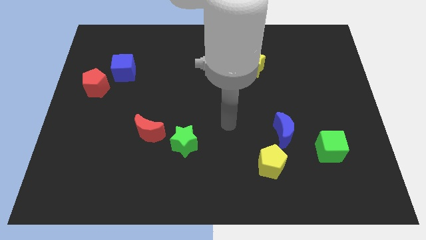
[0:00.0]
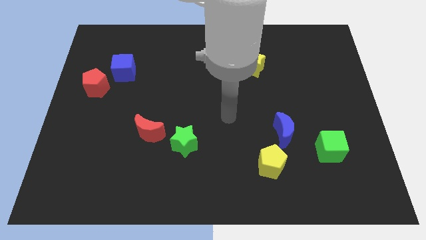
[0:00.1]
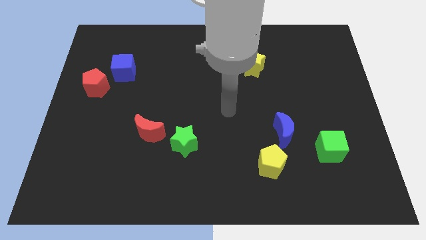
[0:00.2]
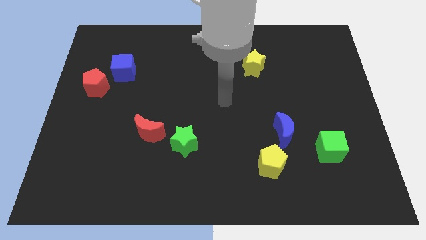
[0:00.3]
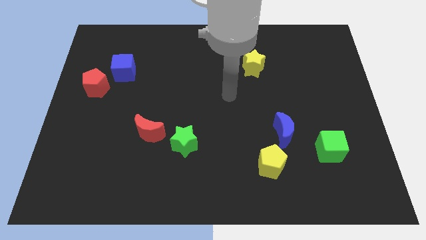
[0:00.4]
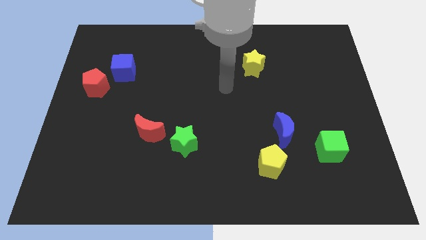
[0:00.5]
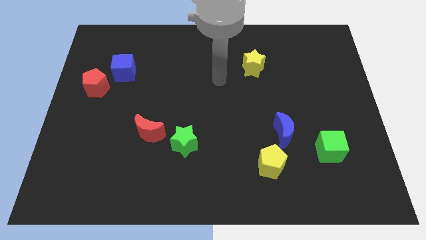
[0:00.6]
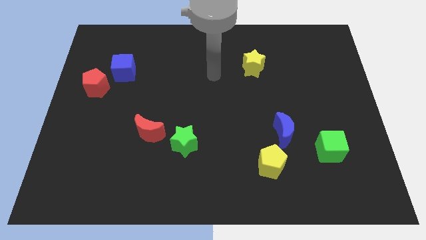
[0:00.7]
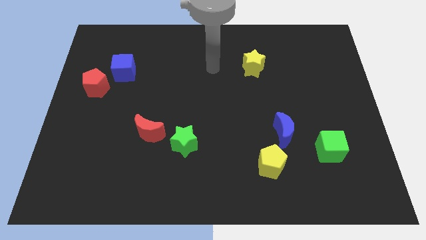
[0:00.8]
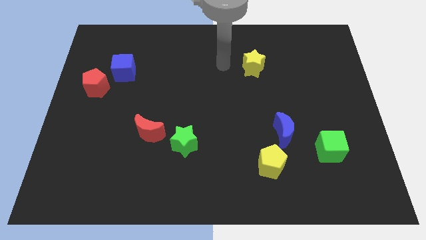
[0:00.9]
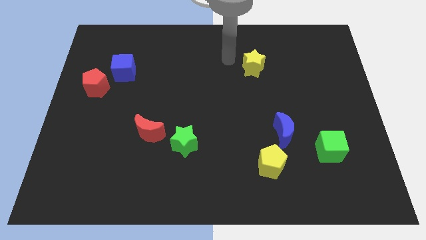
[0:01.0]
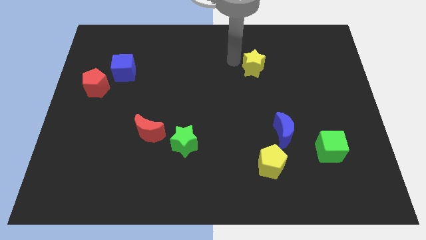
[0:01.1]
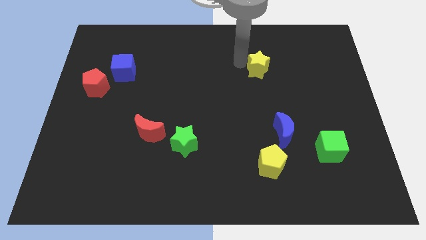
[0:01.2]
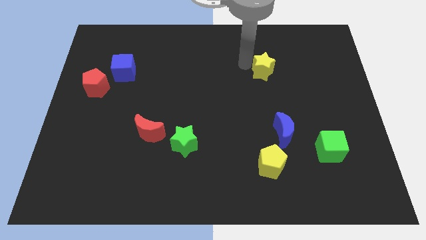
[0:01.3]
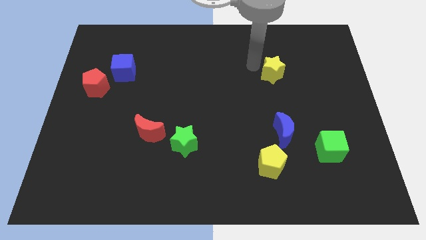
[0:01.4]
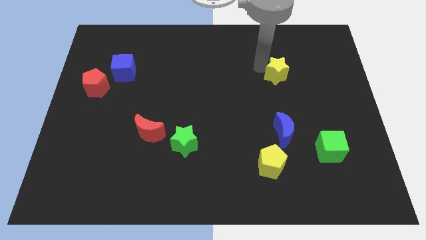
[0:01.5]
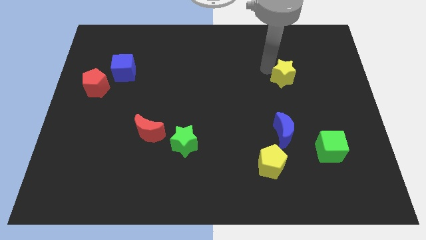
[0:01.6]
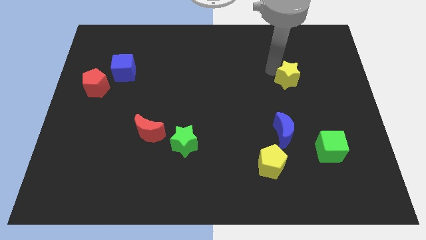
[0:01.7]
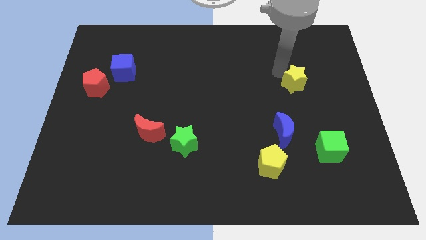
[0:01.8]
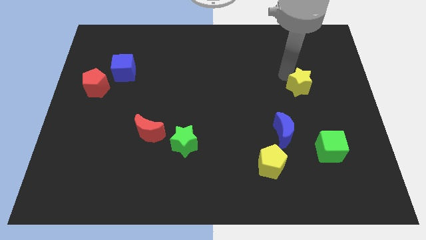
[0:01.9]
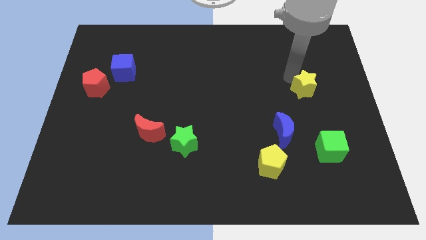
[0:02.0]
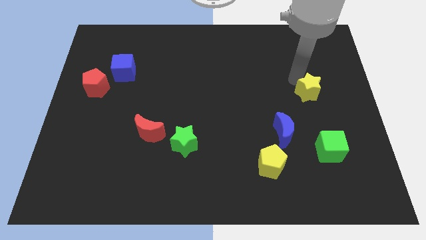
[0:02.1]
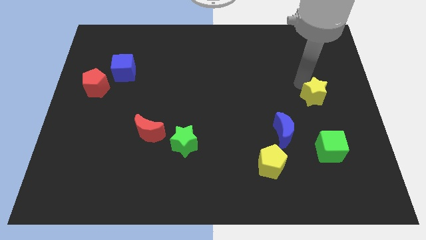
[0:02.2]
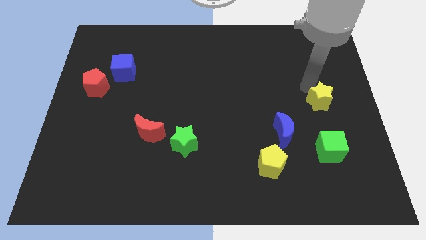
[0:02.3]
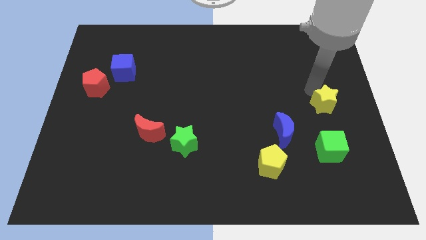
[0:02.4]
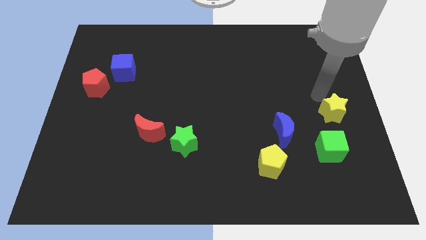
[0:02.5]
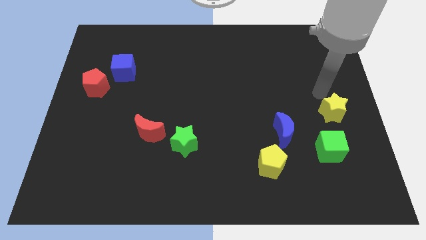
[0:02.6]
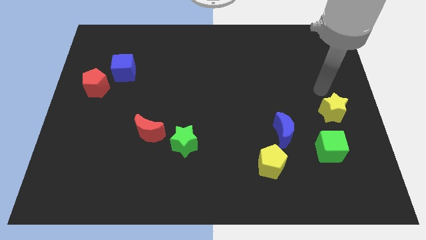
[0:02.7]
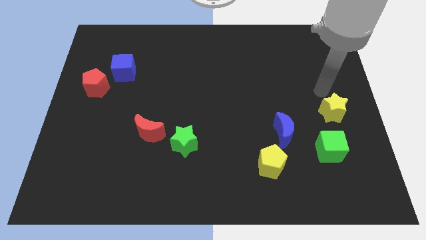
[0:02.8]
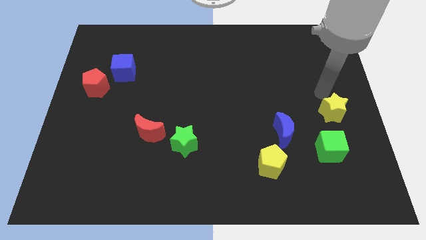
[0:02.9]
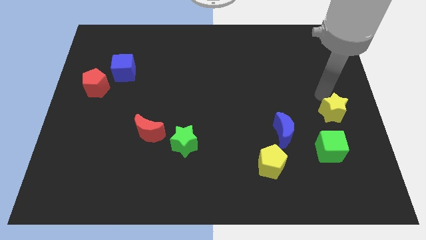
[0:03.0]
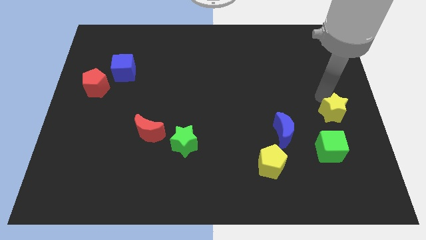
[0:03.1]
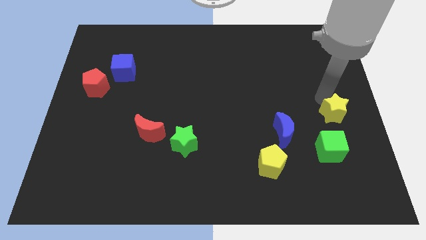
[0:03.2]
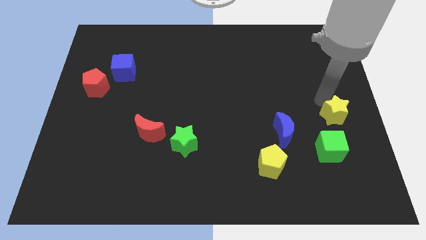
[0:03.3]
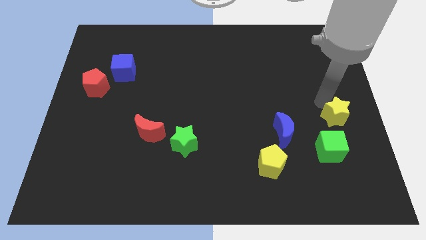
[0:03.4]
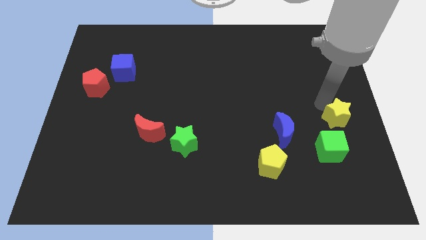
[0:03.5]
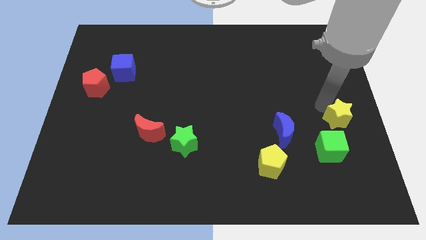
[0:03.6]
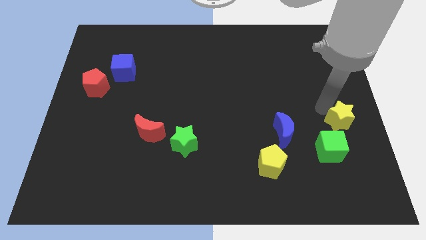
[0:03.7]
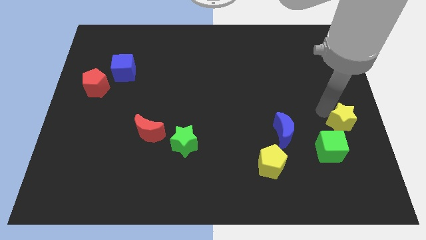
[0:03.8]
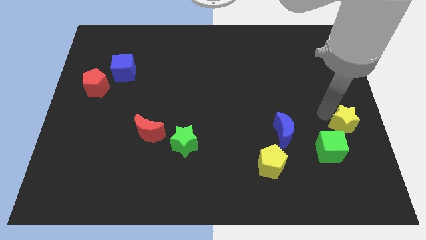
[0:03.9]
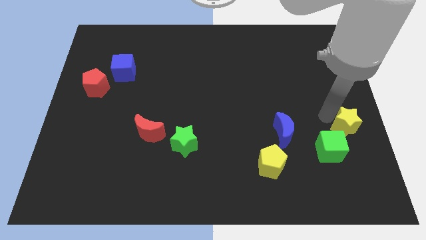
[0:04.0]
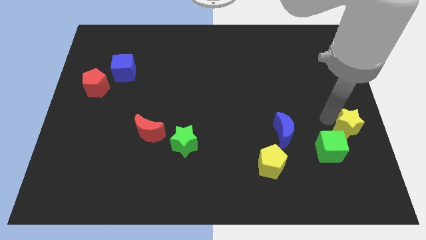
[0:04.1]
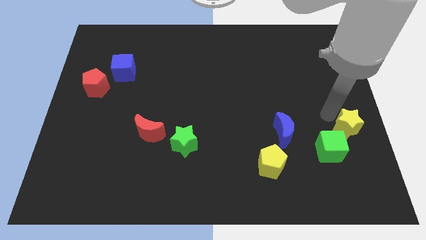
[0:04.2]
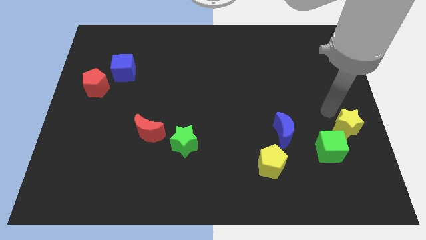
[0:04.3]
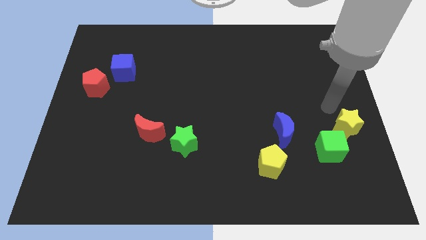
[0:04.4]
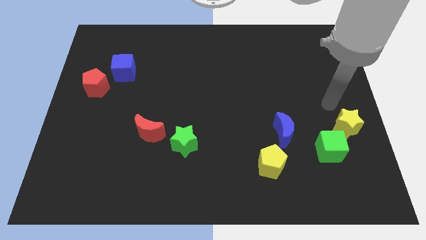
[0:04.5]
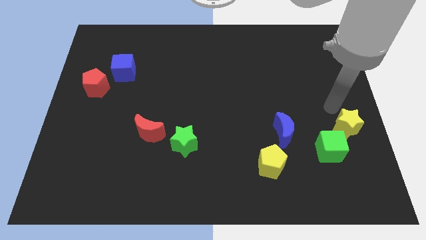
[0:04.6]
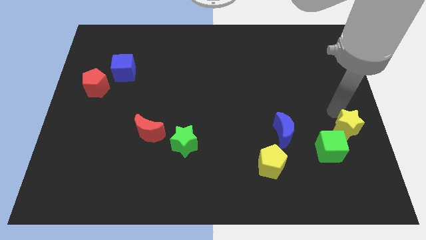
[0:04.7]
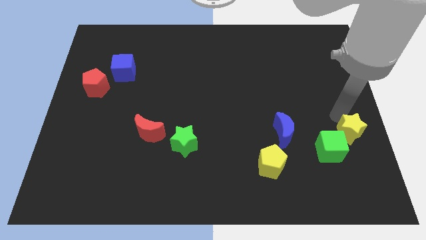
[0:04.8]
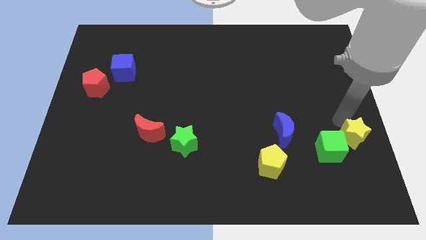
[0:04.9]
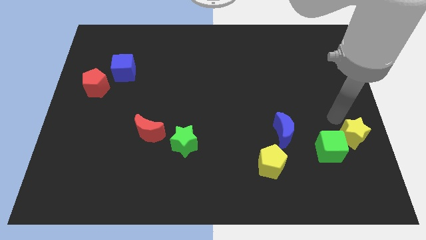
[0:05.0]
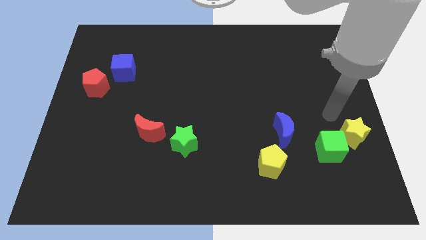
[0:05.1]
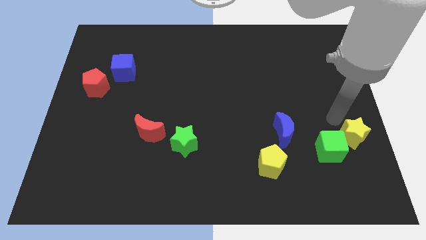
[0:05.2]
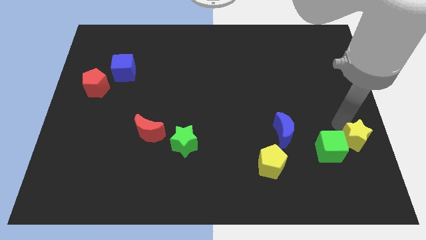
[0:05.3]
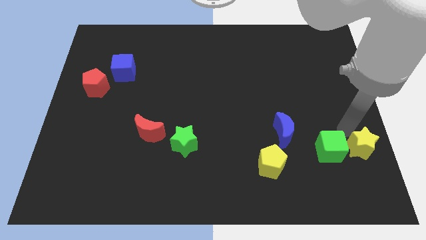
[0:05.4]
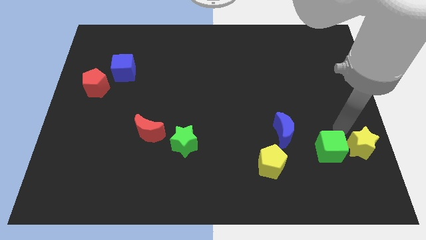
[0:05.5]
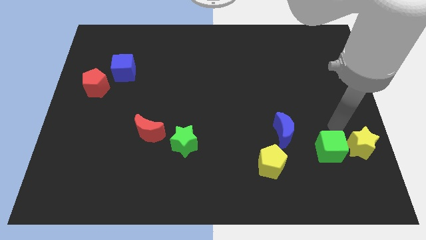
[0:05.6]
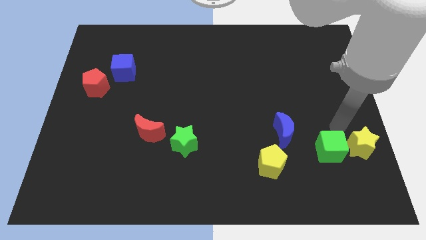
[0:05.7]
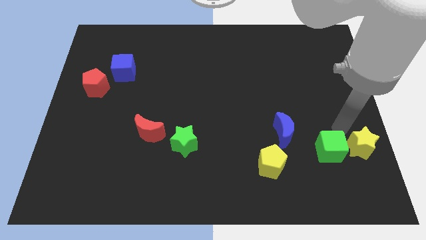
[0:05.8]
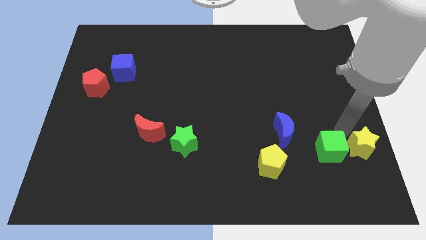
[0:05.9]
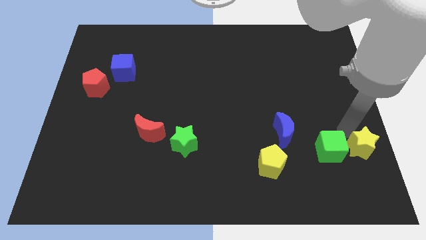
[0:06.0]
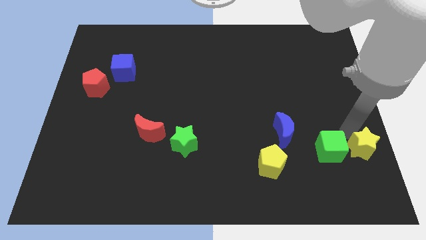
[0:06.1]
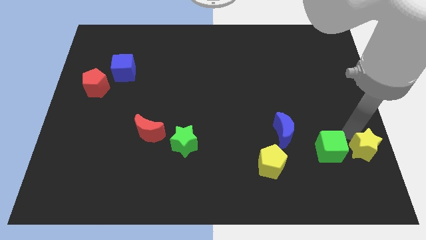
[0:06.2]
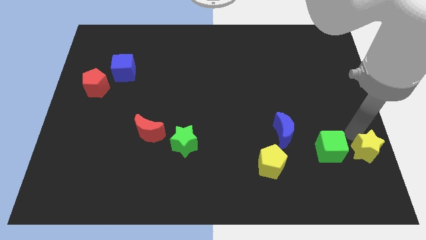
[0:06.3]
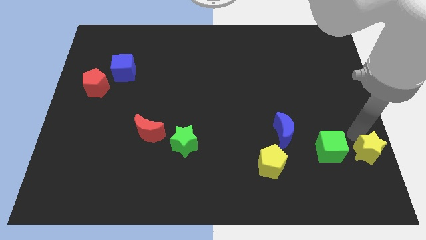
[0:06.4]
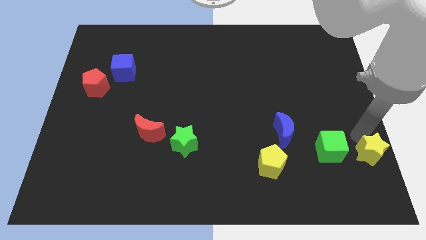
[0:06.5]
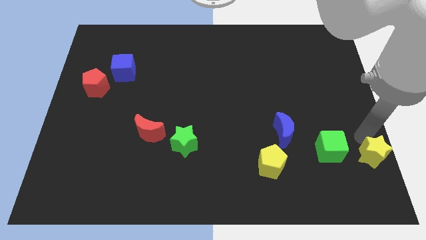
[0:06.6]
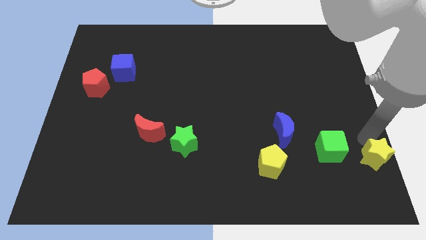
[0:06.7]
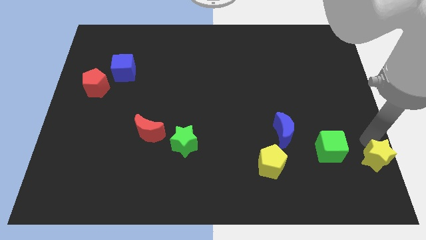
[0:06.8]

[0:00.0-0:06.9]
move the yellow star to the bottom right corner
